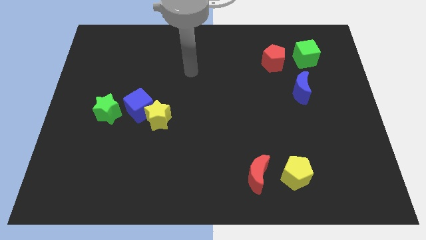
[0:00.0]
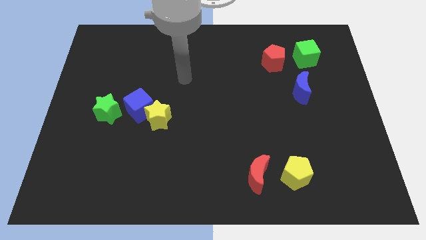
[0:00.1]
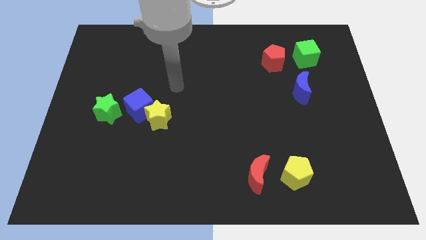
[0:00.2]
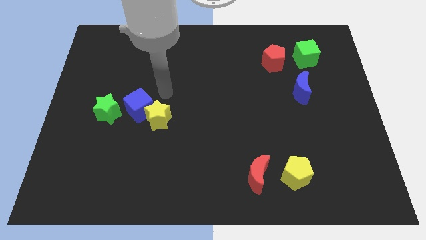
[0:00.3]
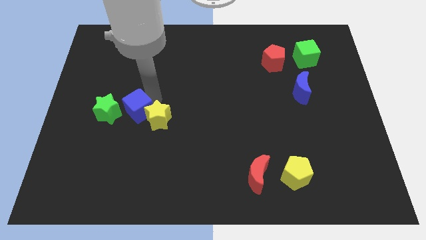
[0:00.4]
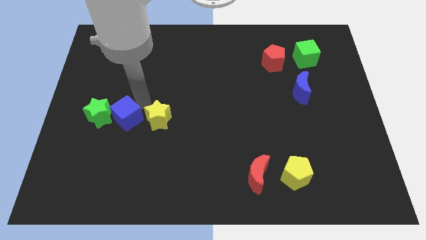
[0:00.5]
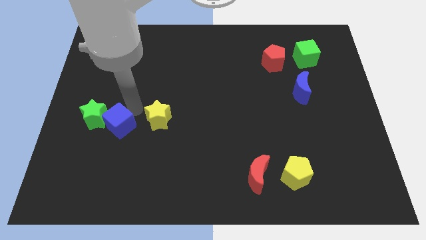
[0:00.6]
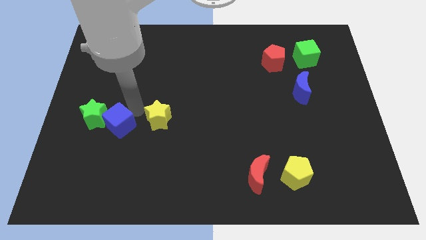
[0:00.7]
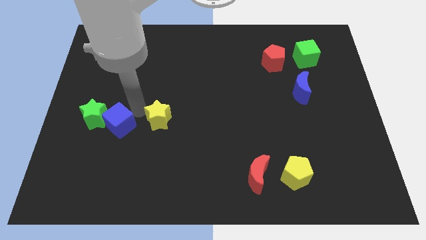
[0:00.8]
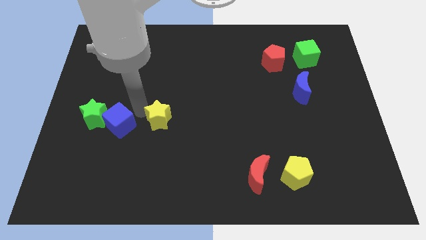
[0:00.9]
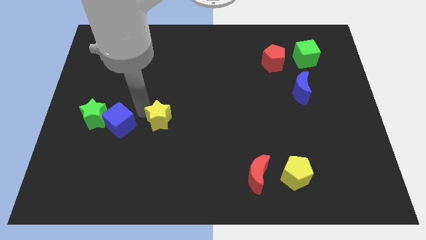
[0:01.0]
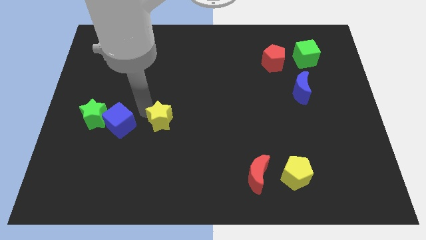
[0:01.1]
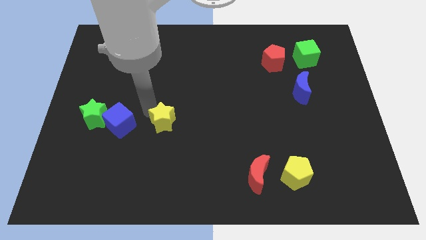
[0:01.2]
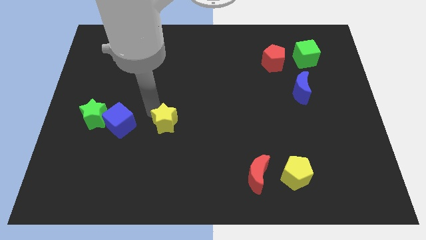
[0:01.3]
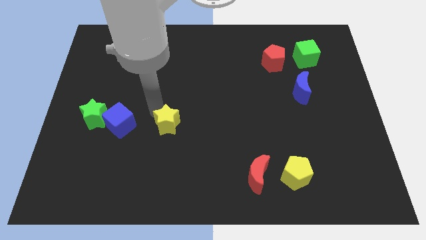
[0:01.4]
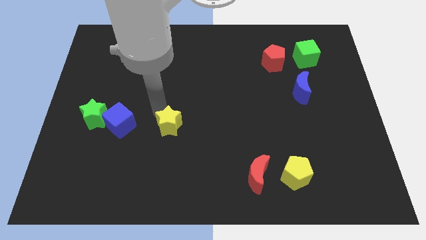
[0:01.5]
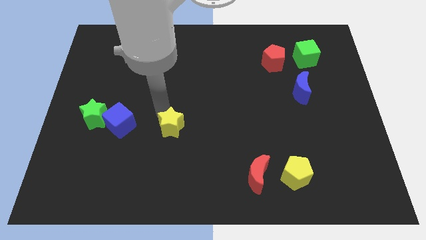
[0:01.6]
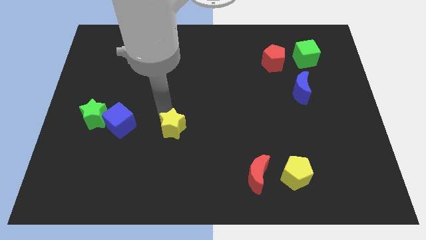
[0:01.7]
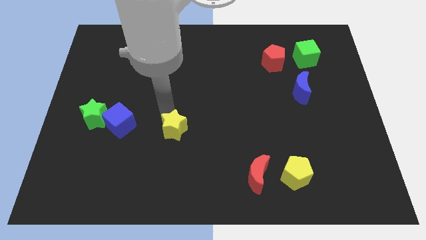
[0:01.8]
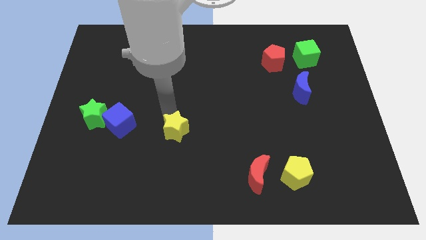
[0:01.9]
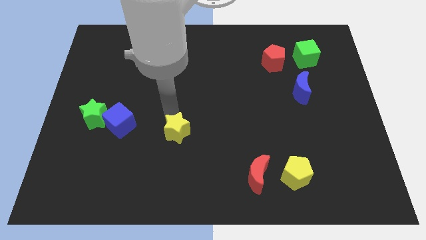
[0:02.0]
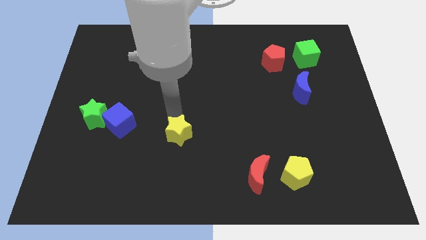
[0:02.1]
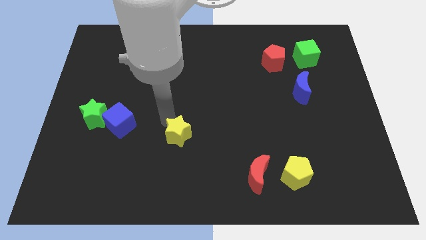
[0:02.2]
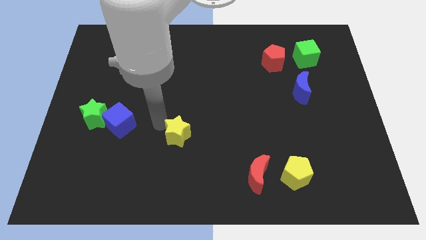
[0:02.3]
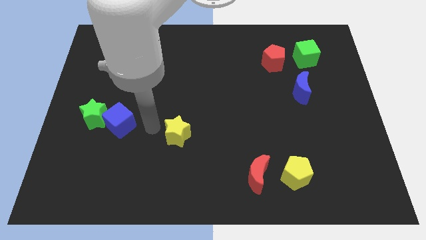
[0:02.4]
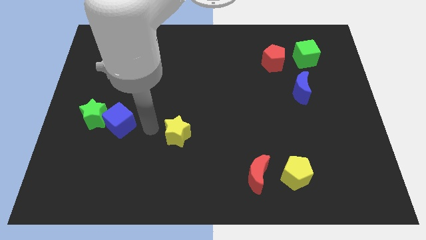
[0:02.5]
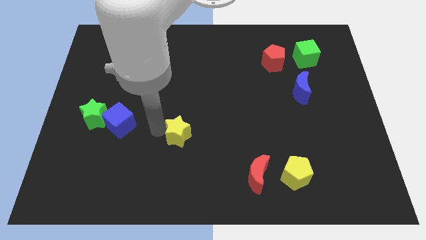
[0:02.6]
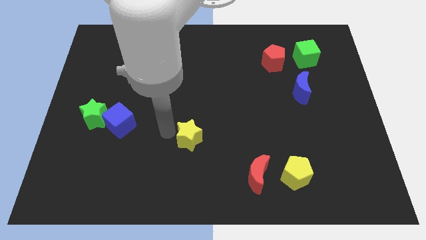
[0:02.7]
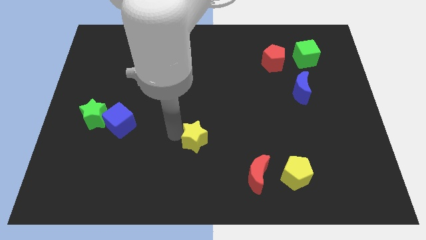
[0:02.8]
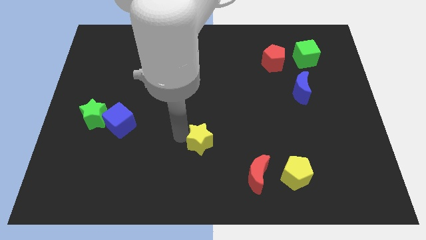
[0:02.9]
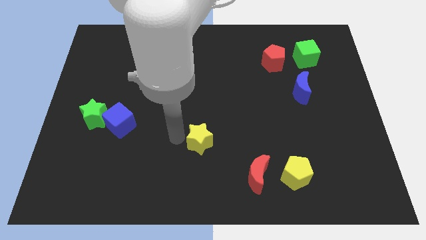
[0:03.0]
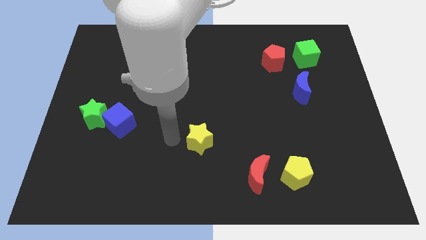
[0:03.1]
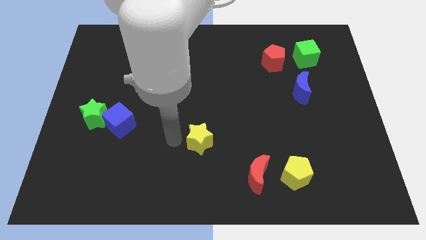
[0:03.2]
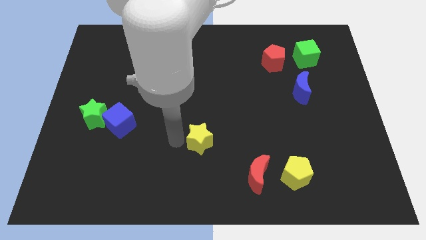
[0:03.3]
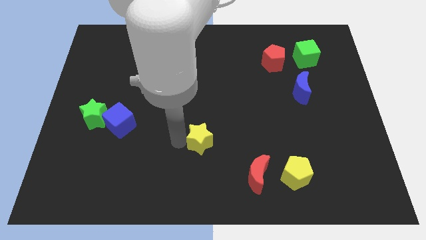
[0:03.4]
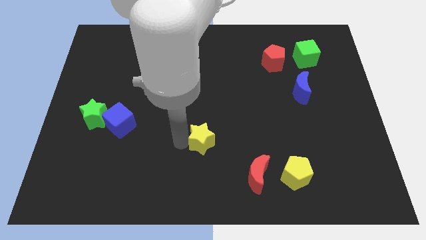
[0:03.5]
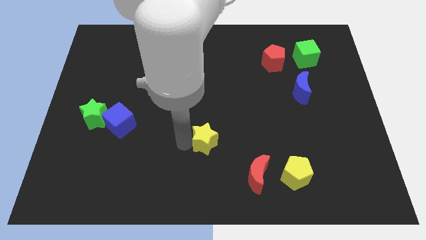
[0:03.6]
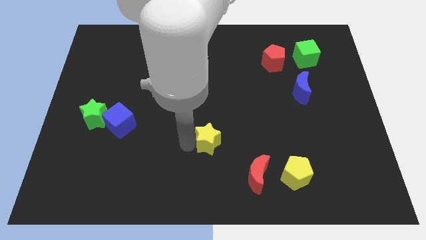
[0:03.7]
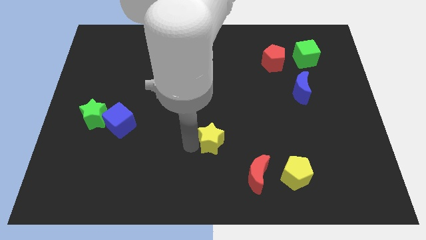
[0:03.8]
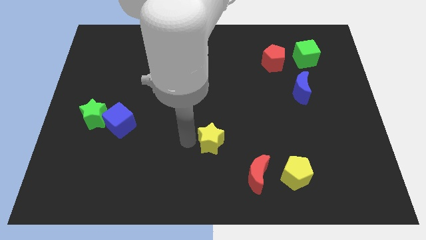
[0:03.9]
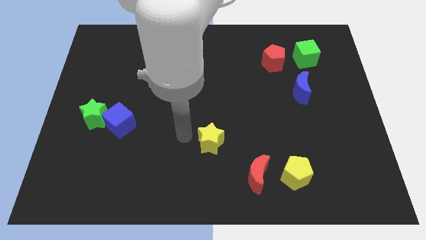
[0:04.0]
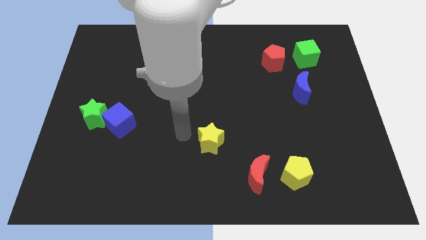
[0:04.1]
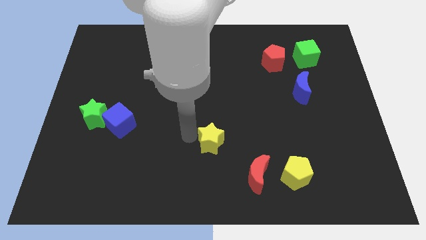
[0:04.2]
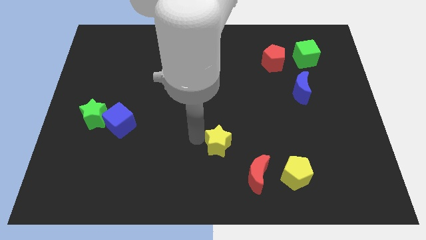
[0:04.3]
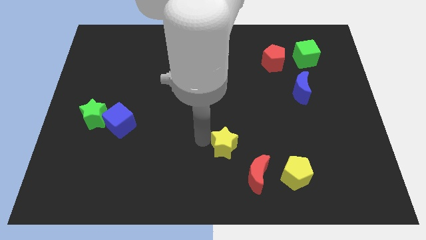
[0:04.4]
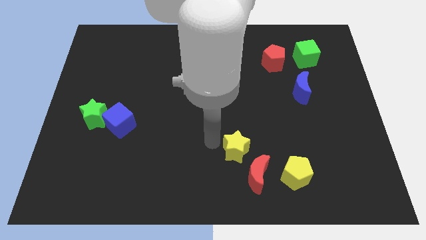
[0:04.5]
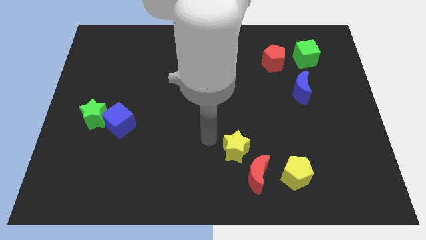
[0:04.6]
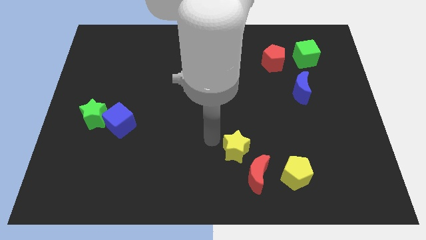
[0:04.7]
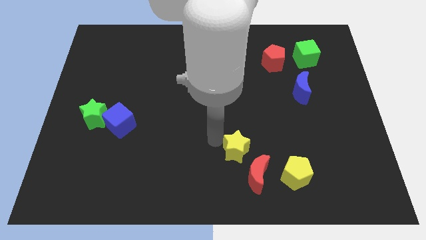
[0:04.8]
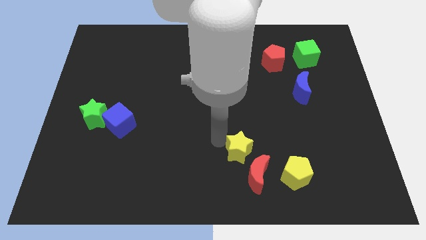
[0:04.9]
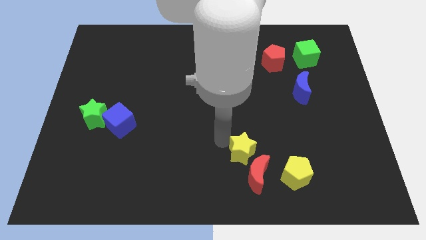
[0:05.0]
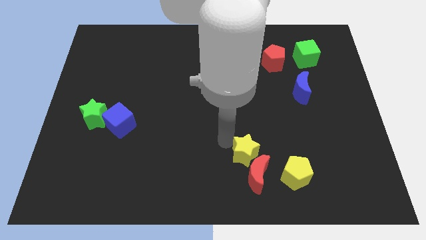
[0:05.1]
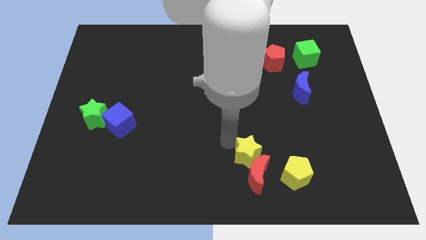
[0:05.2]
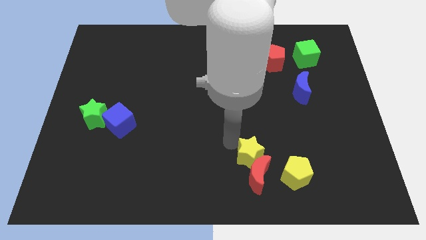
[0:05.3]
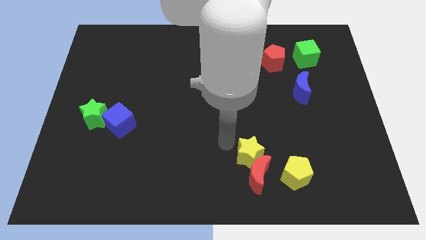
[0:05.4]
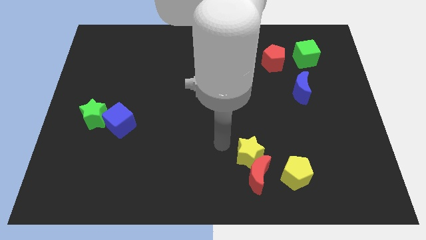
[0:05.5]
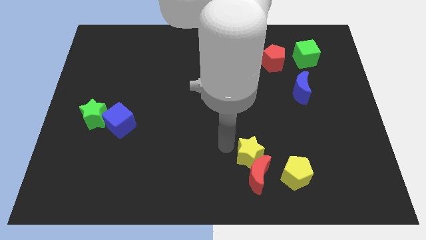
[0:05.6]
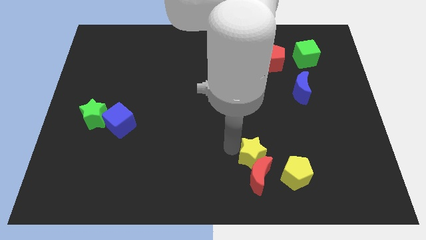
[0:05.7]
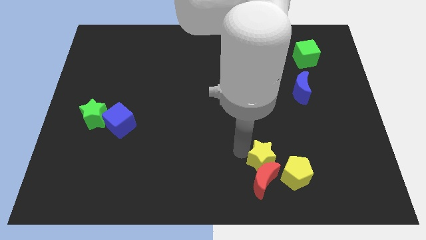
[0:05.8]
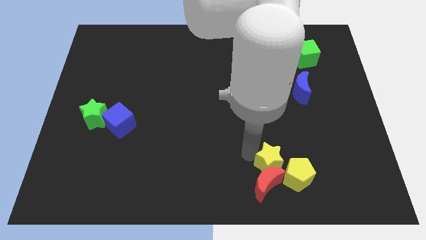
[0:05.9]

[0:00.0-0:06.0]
push the yellow star close to the yellow pentagon

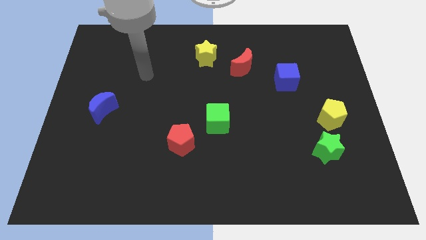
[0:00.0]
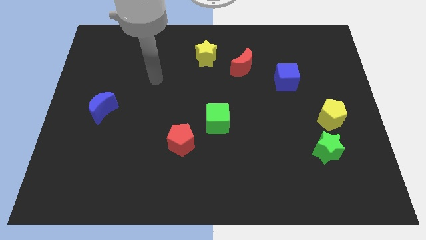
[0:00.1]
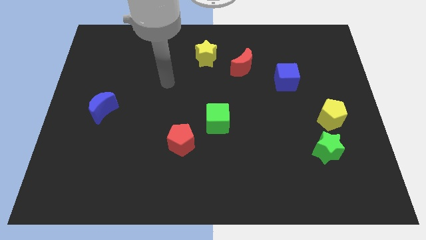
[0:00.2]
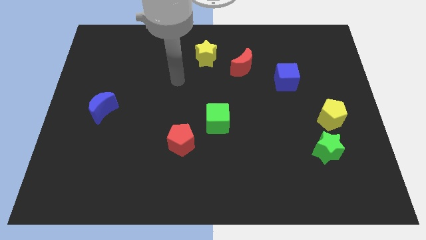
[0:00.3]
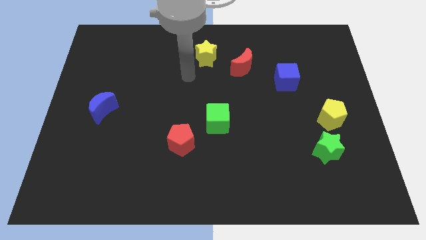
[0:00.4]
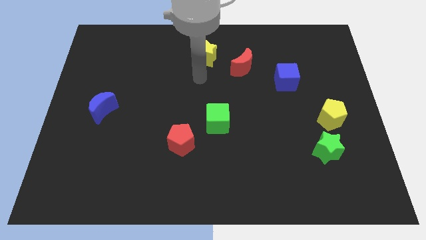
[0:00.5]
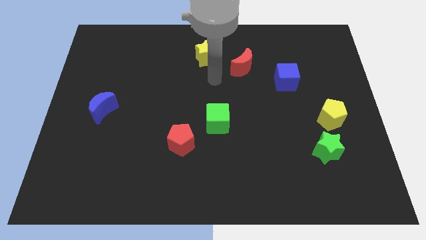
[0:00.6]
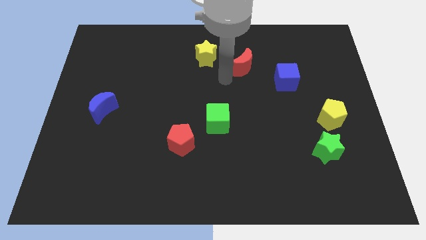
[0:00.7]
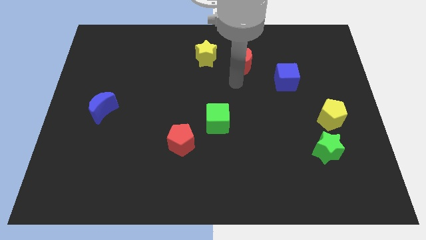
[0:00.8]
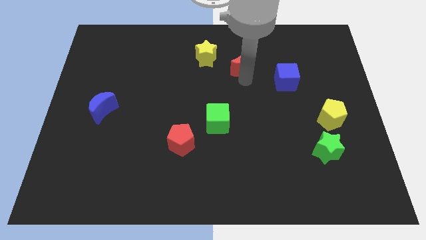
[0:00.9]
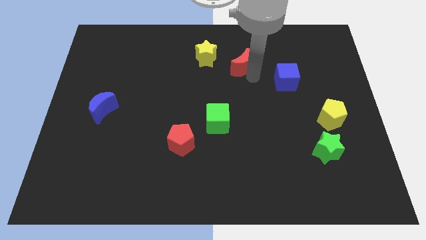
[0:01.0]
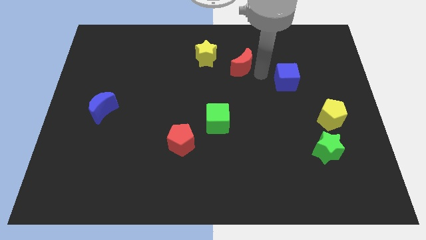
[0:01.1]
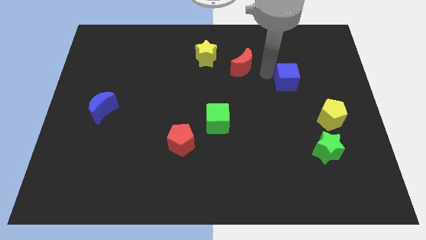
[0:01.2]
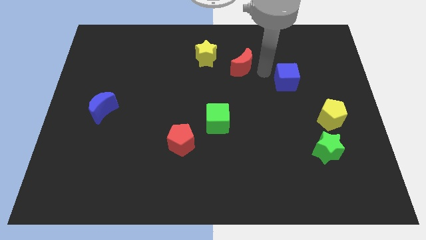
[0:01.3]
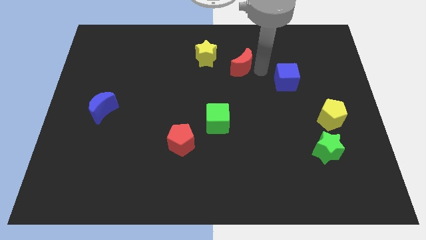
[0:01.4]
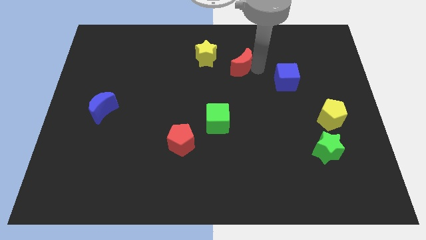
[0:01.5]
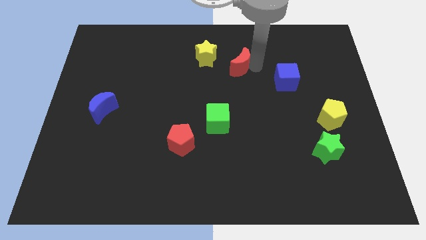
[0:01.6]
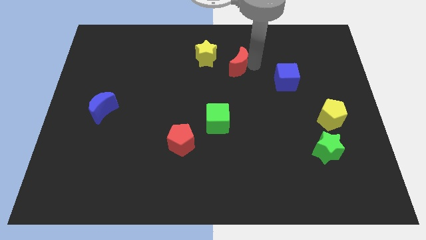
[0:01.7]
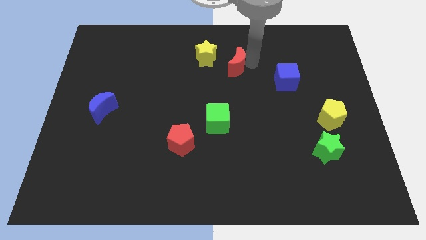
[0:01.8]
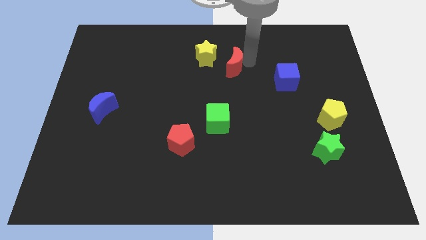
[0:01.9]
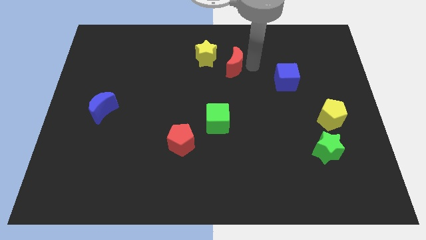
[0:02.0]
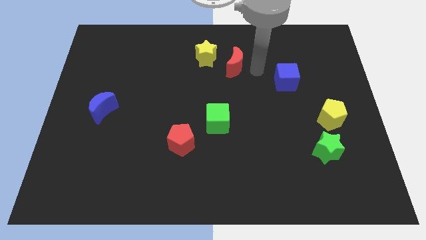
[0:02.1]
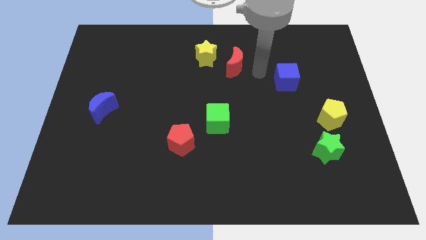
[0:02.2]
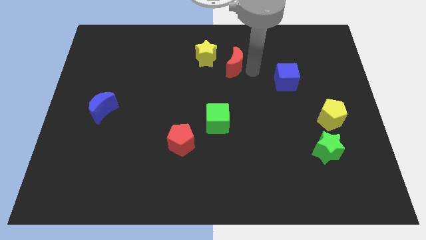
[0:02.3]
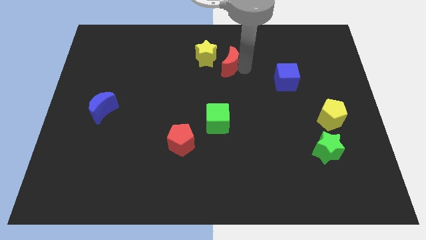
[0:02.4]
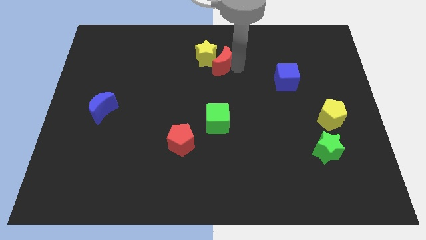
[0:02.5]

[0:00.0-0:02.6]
put the red moon next to the yellow star
